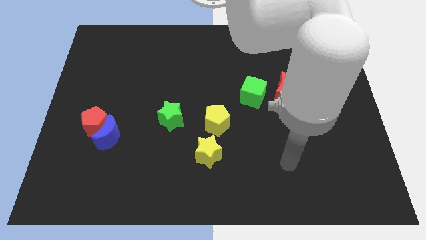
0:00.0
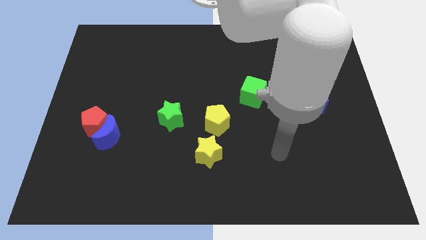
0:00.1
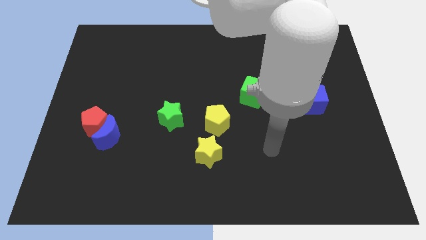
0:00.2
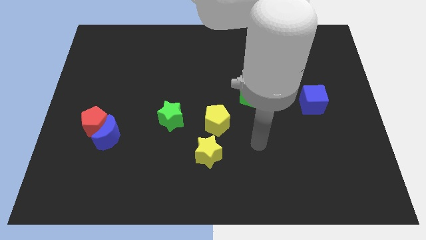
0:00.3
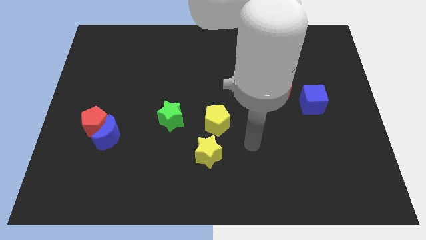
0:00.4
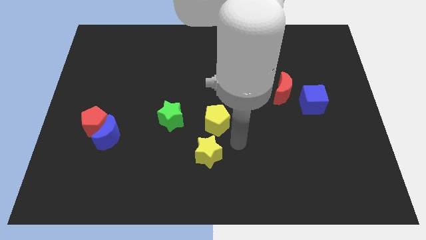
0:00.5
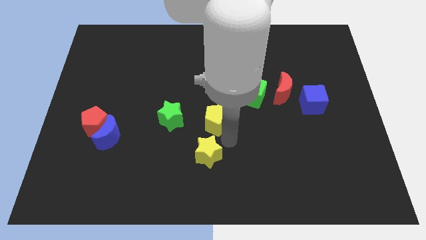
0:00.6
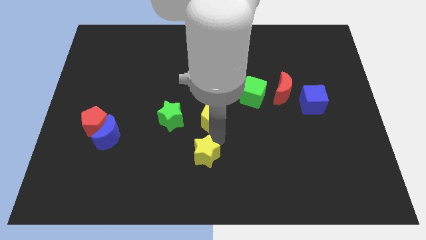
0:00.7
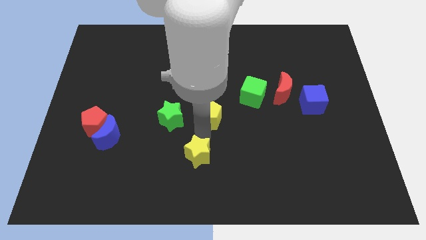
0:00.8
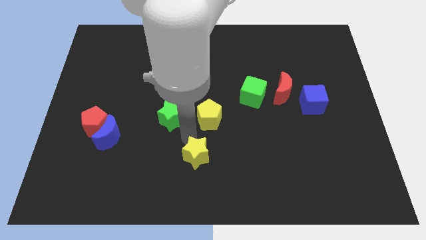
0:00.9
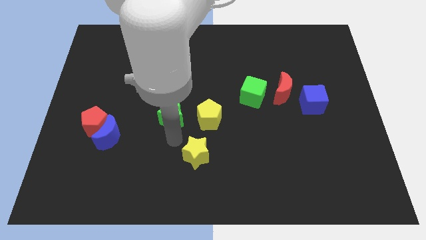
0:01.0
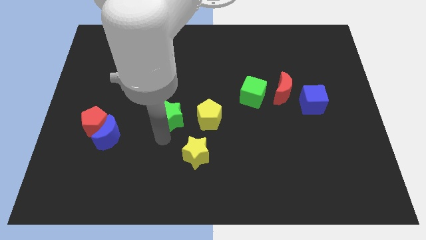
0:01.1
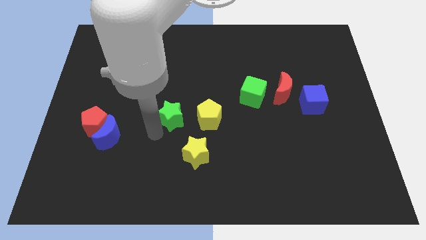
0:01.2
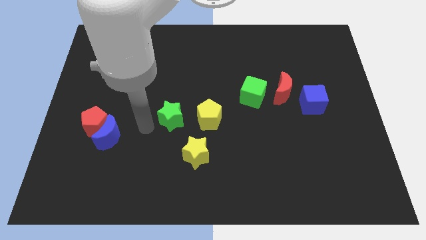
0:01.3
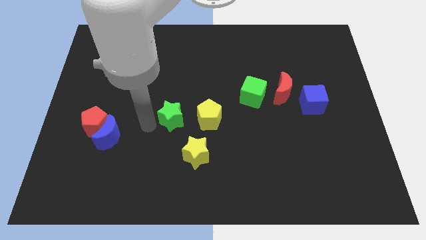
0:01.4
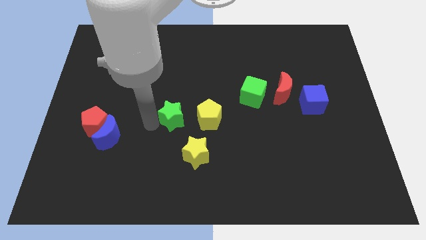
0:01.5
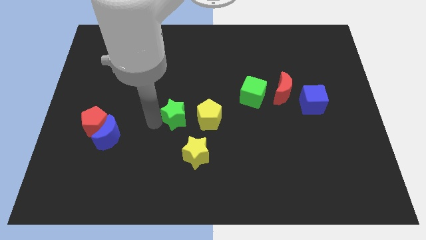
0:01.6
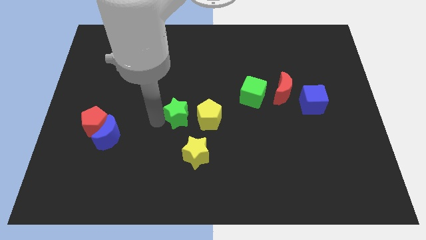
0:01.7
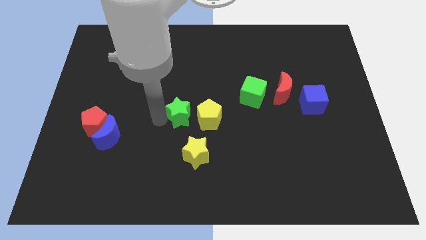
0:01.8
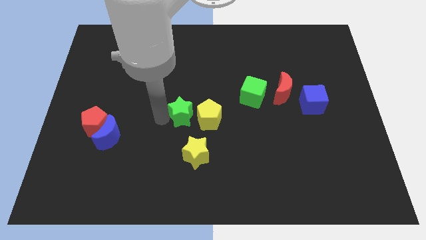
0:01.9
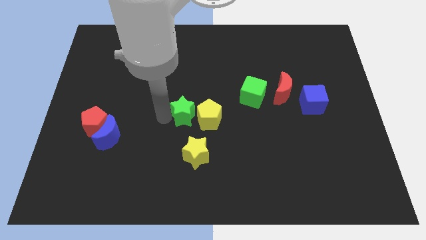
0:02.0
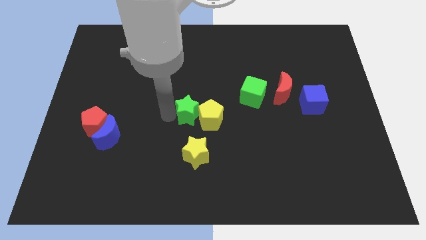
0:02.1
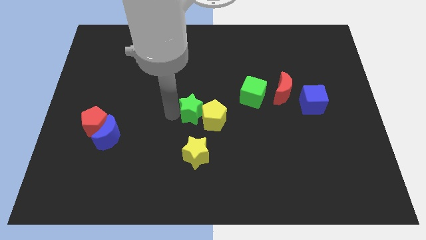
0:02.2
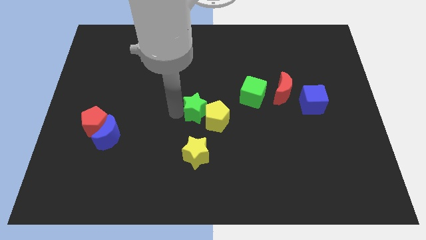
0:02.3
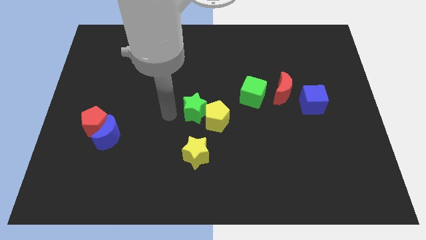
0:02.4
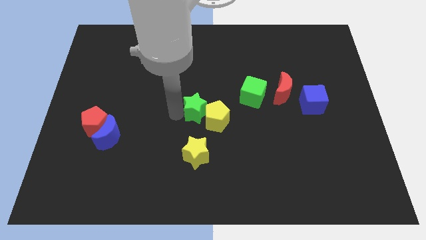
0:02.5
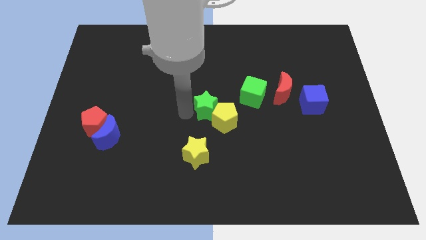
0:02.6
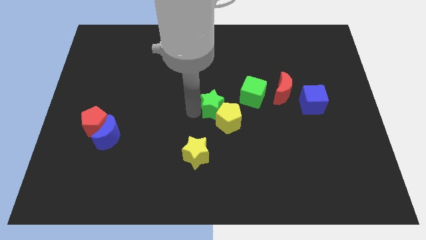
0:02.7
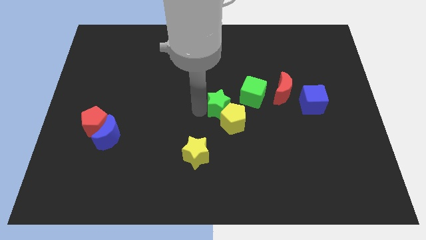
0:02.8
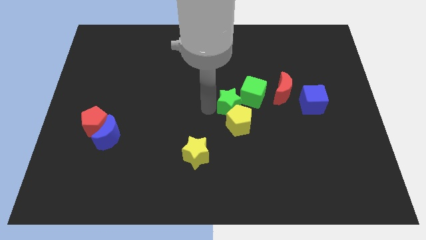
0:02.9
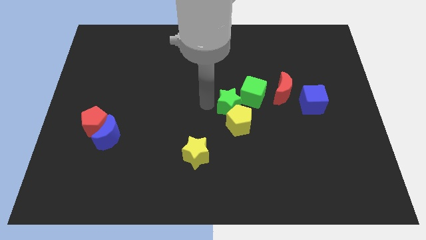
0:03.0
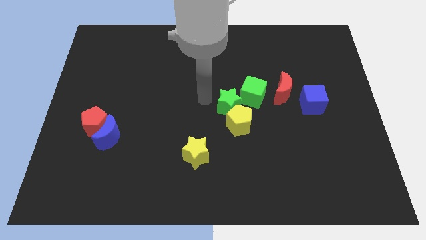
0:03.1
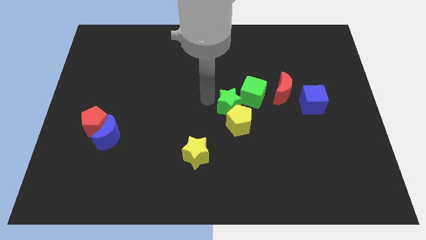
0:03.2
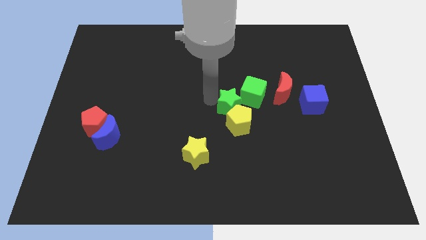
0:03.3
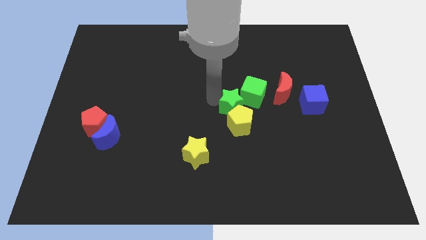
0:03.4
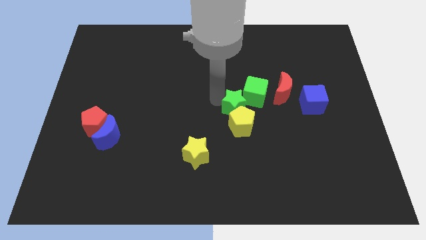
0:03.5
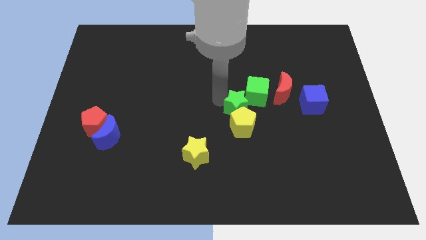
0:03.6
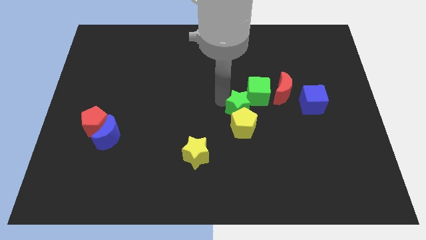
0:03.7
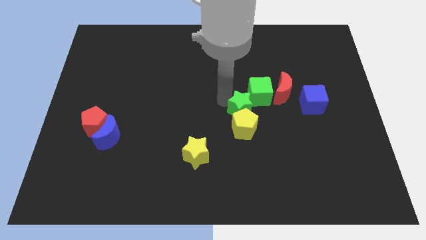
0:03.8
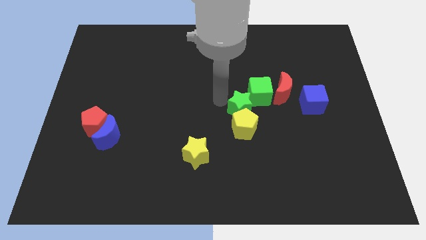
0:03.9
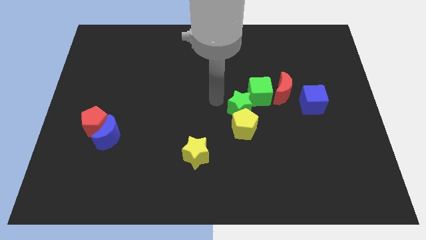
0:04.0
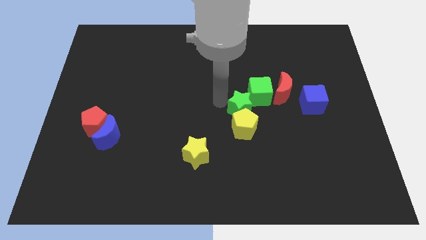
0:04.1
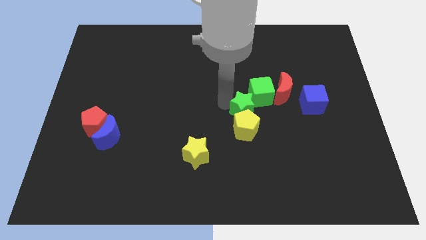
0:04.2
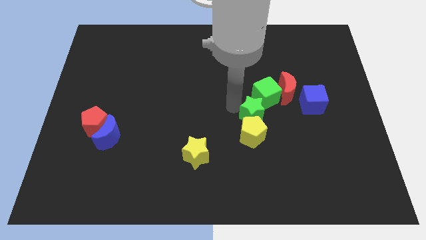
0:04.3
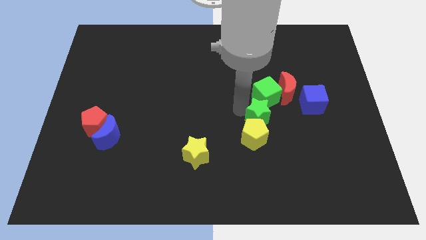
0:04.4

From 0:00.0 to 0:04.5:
push the green star to the right

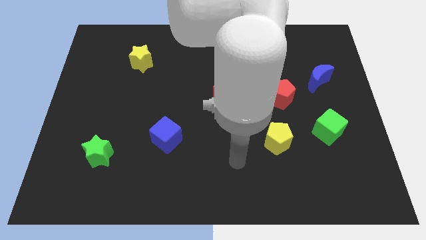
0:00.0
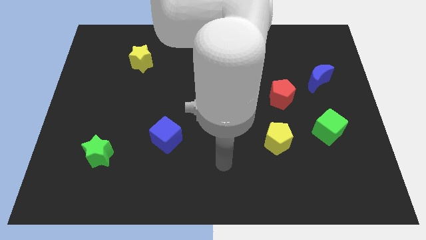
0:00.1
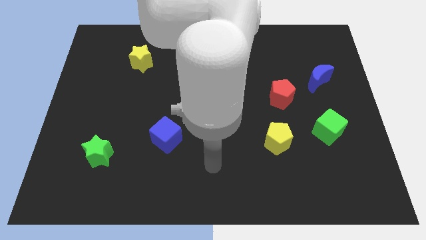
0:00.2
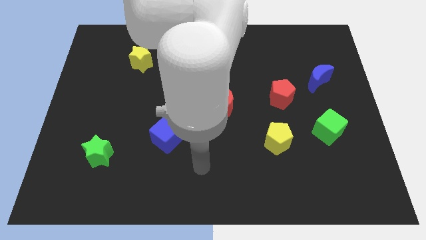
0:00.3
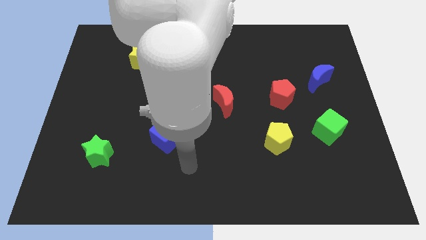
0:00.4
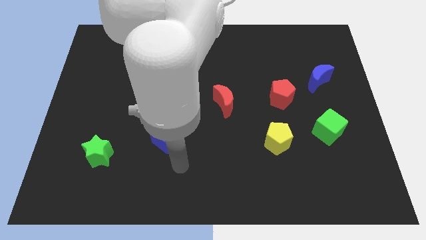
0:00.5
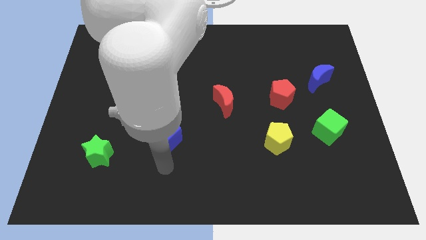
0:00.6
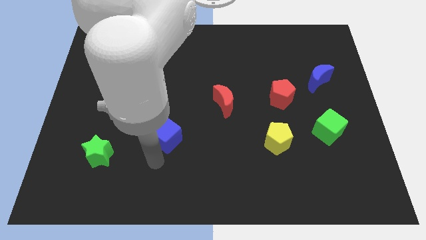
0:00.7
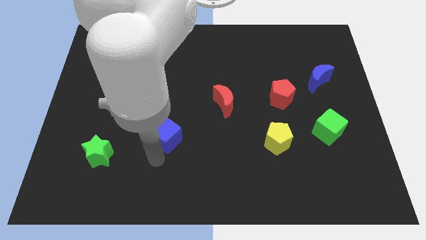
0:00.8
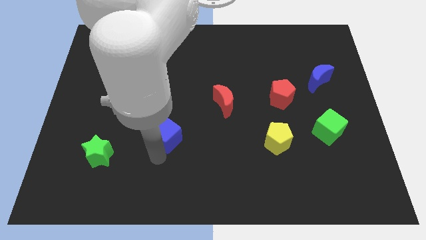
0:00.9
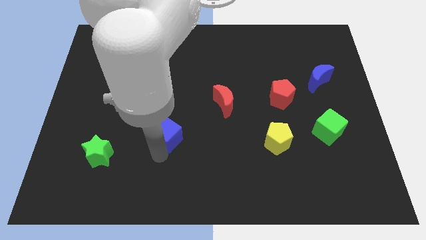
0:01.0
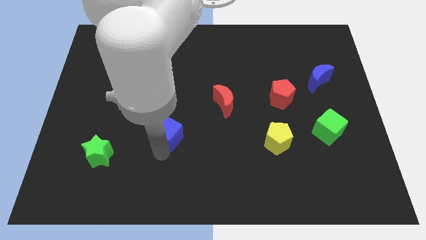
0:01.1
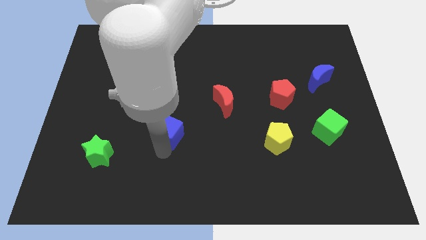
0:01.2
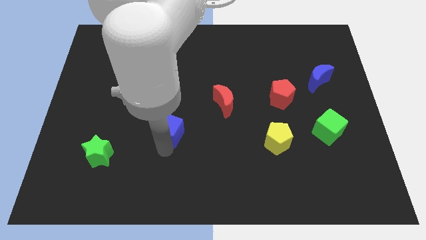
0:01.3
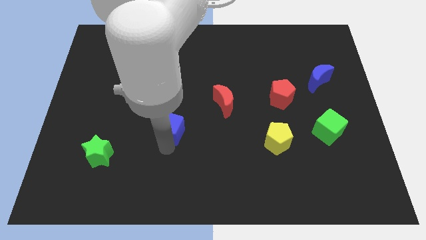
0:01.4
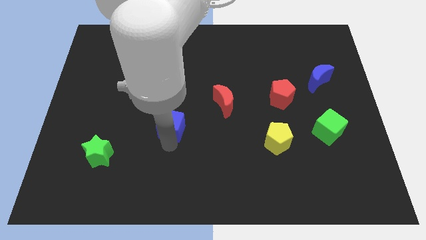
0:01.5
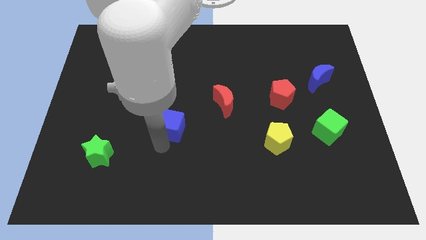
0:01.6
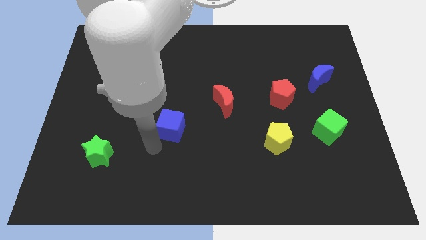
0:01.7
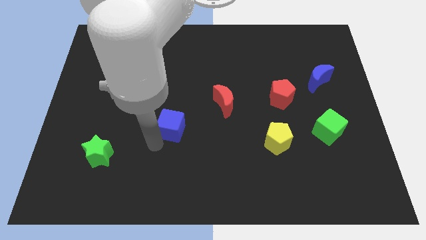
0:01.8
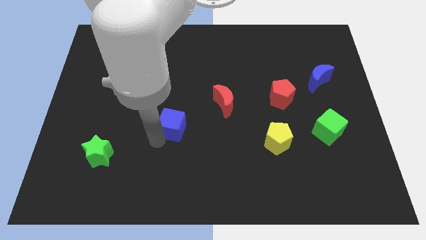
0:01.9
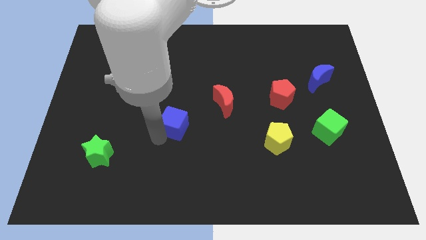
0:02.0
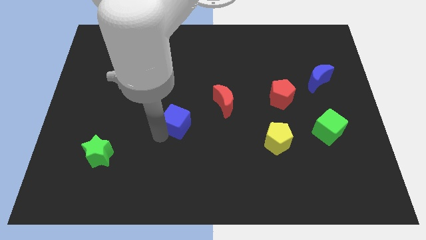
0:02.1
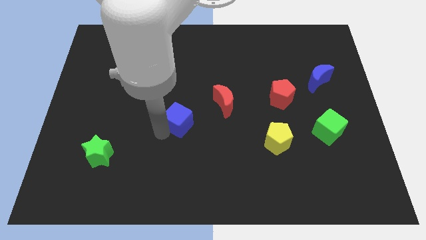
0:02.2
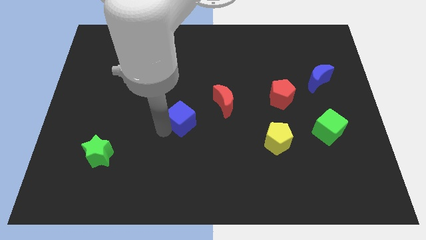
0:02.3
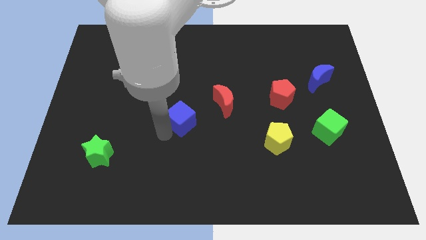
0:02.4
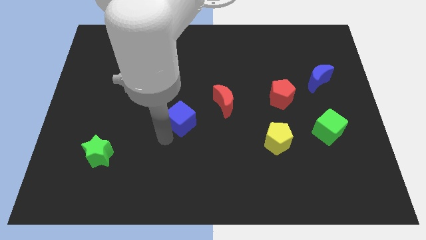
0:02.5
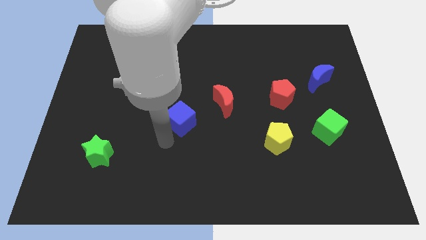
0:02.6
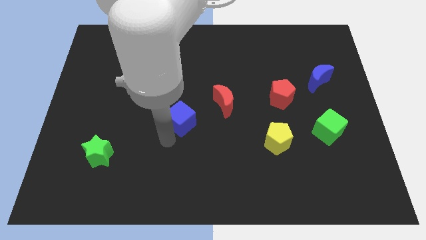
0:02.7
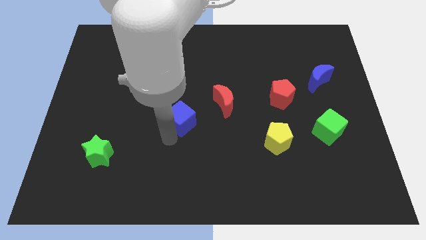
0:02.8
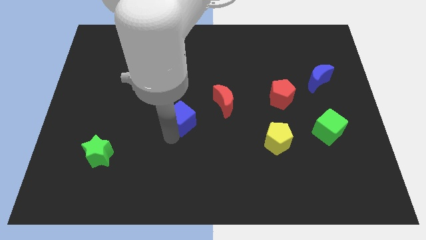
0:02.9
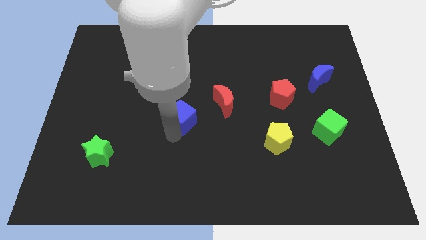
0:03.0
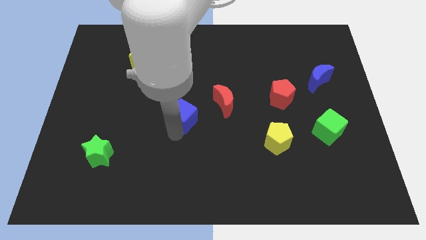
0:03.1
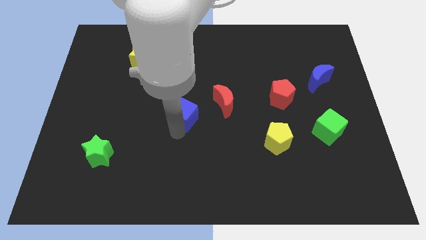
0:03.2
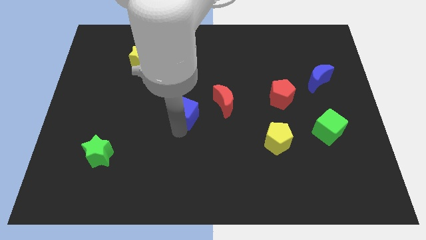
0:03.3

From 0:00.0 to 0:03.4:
push the blue cube diagonally up and right somewhat

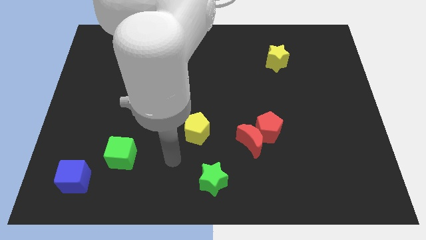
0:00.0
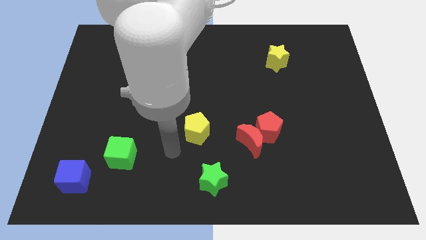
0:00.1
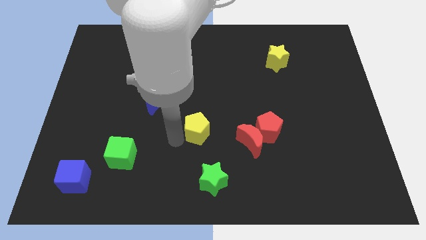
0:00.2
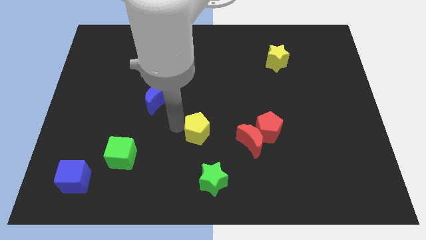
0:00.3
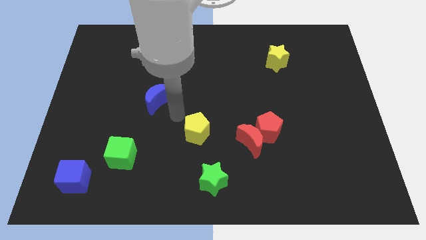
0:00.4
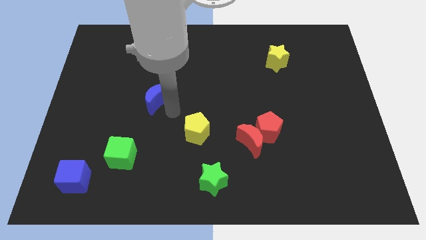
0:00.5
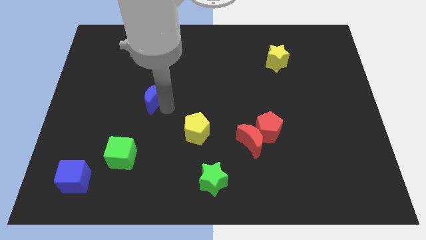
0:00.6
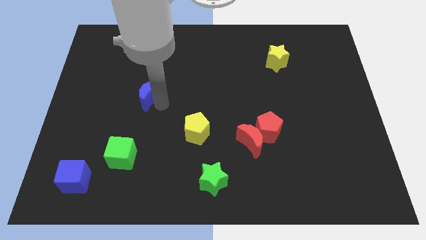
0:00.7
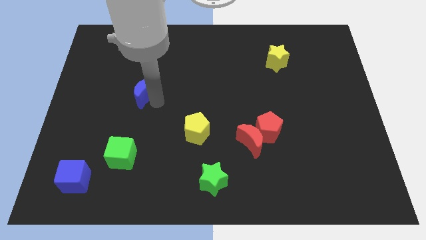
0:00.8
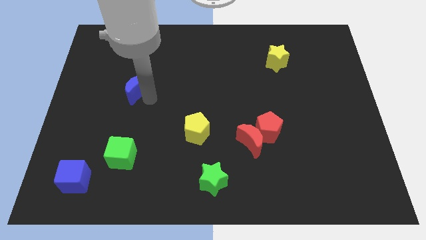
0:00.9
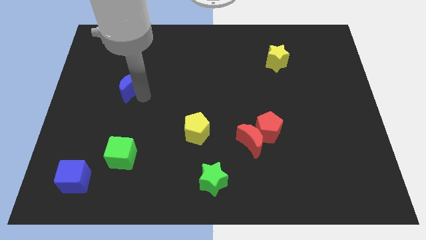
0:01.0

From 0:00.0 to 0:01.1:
slightly push the blue moon up and then to the left
